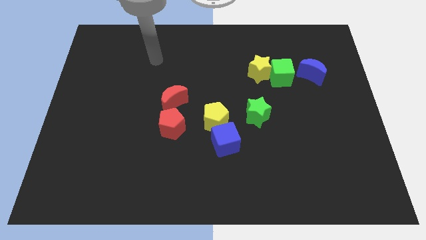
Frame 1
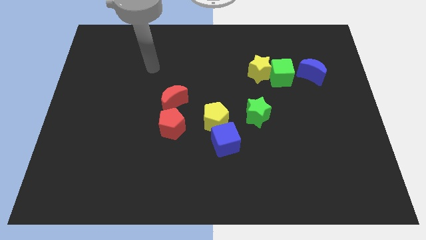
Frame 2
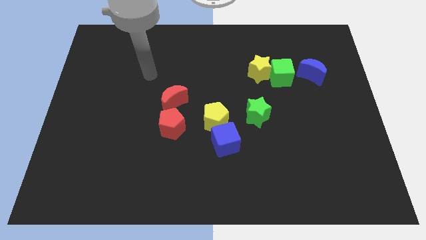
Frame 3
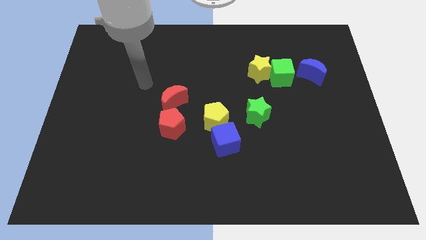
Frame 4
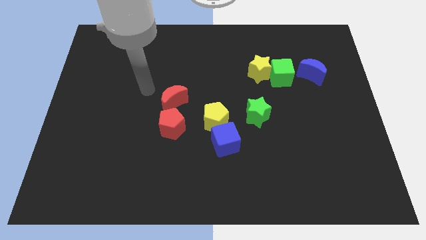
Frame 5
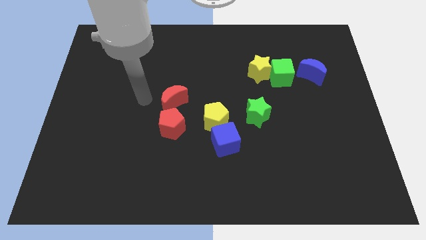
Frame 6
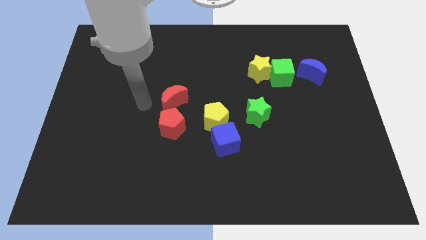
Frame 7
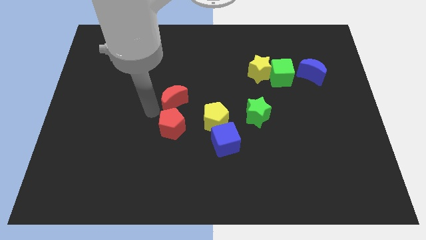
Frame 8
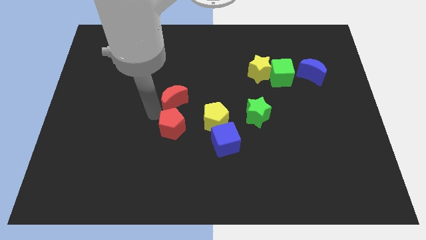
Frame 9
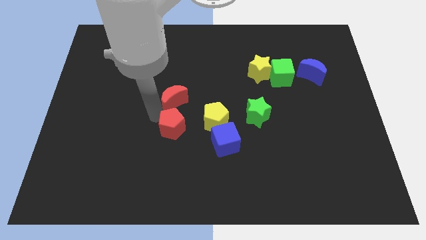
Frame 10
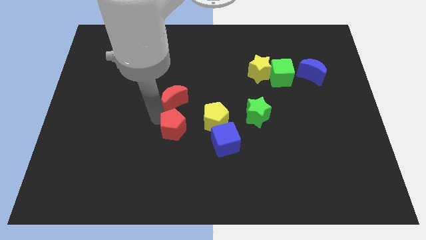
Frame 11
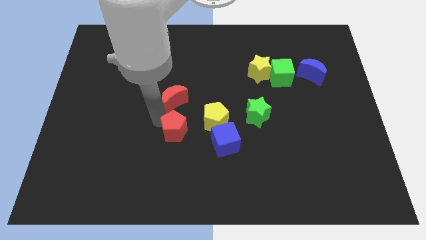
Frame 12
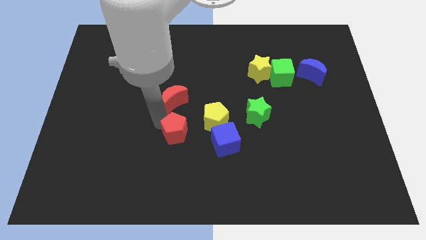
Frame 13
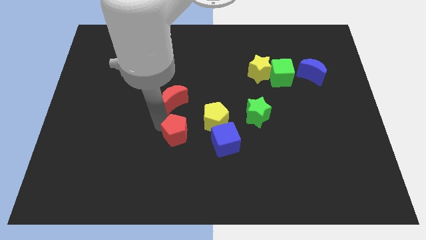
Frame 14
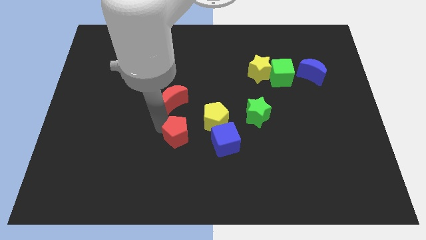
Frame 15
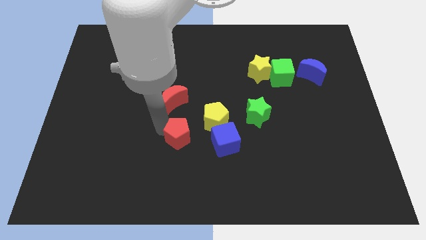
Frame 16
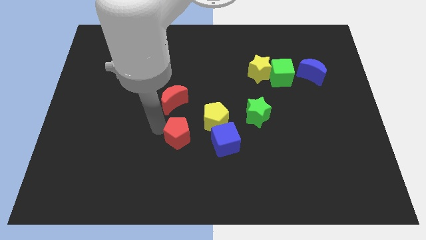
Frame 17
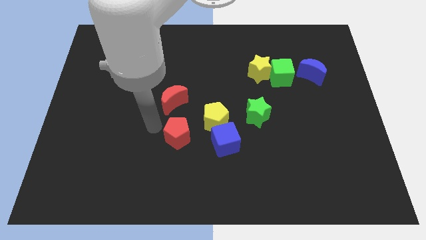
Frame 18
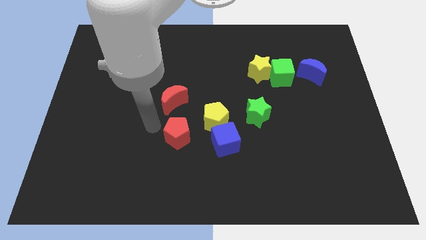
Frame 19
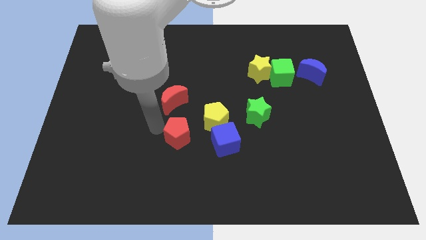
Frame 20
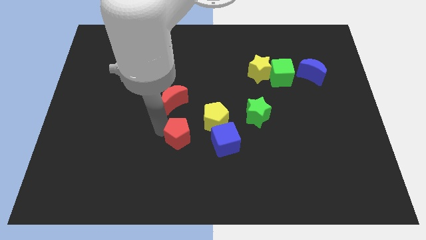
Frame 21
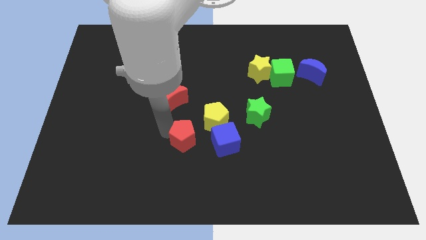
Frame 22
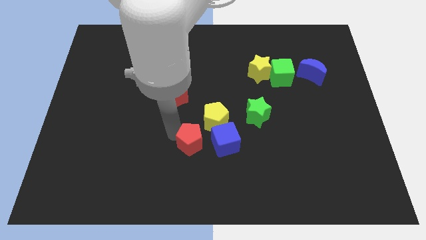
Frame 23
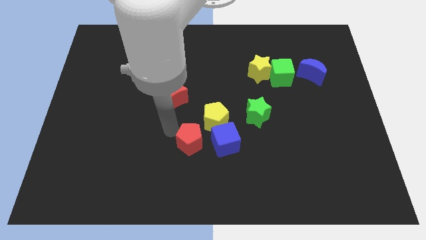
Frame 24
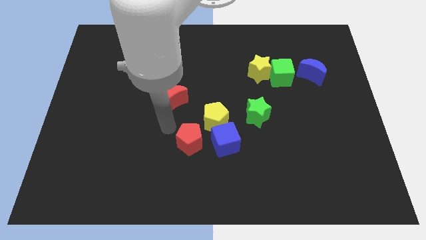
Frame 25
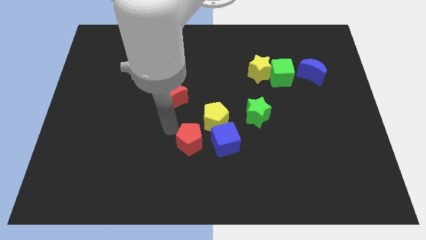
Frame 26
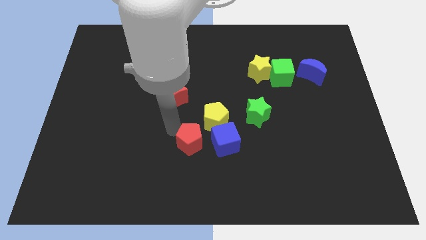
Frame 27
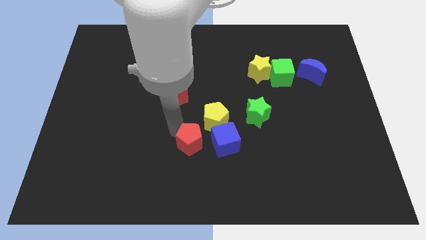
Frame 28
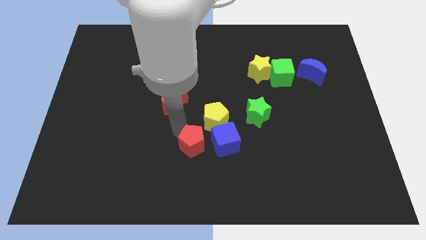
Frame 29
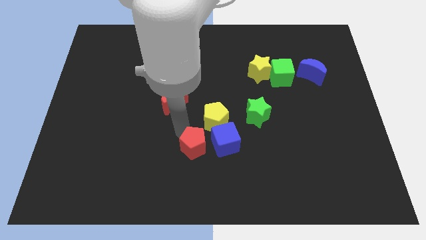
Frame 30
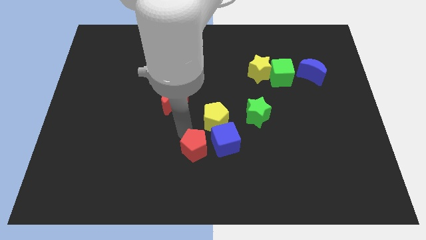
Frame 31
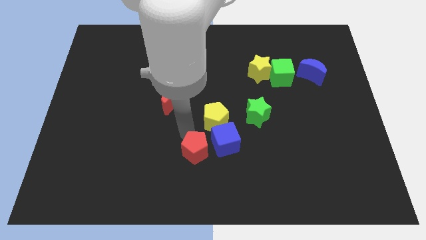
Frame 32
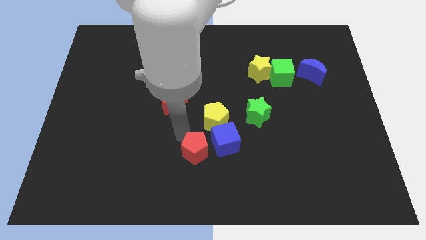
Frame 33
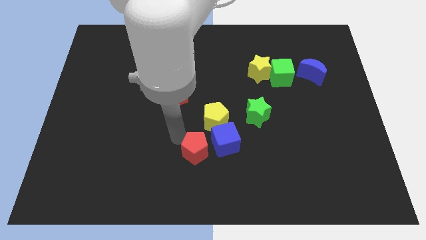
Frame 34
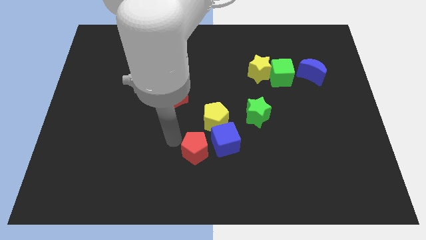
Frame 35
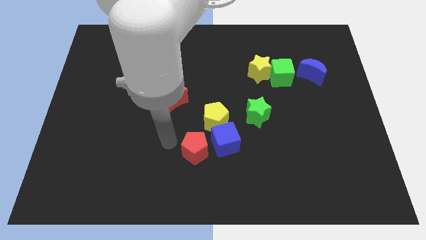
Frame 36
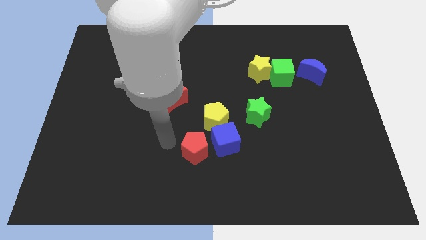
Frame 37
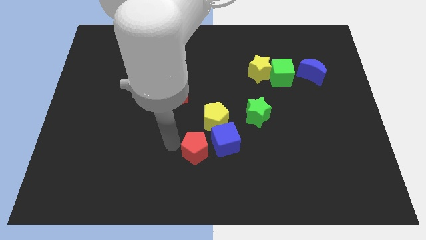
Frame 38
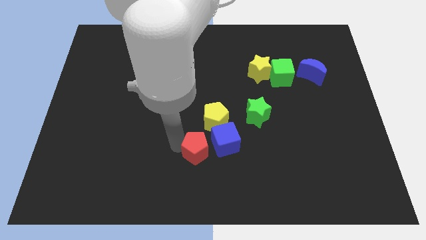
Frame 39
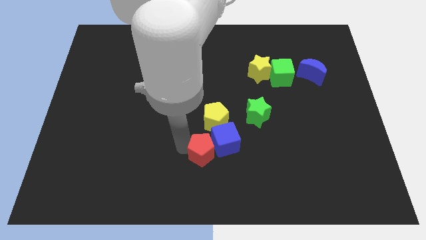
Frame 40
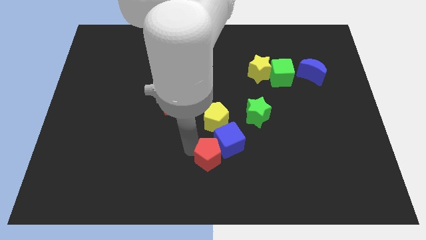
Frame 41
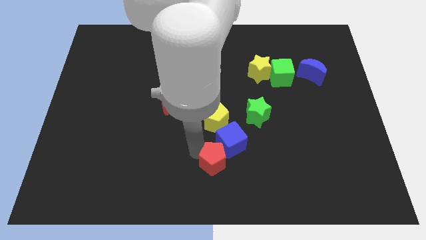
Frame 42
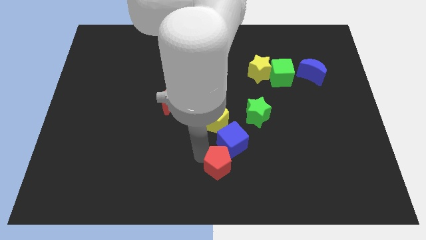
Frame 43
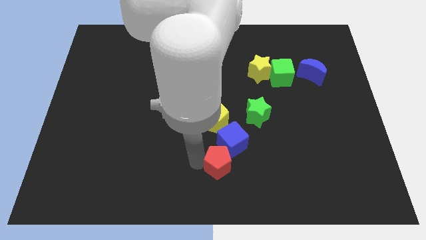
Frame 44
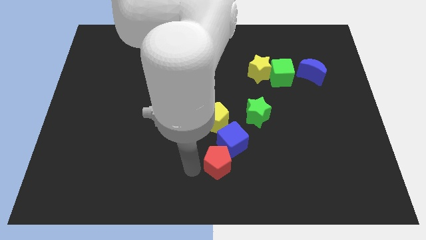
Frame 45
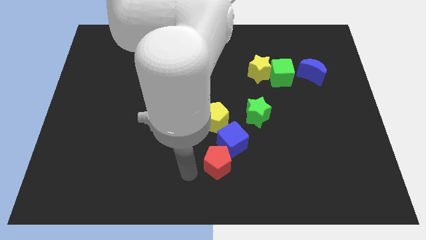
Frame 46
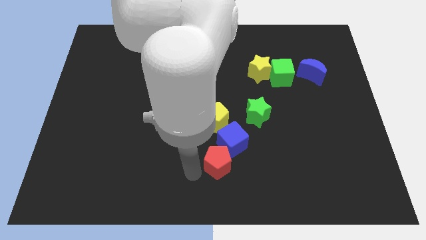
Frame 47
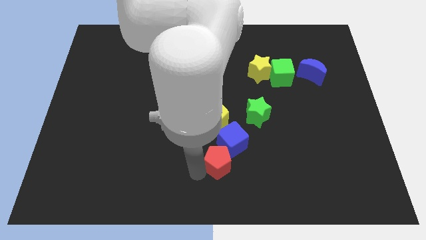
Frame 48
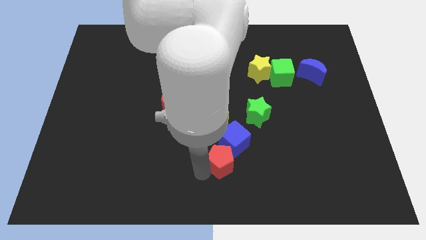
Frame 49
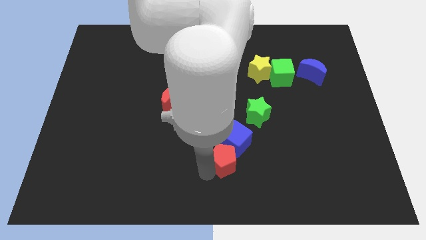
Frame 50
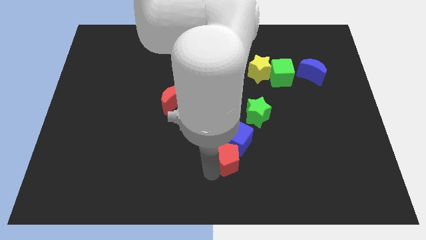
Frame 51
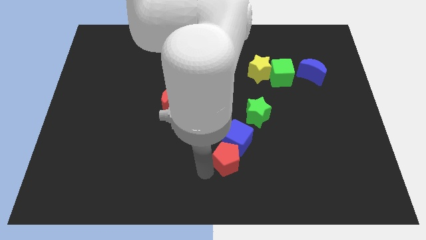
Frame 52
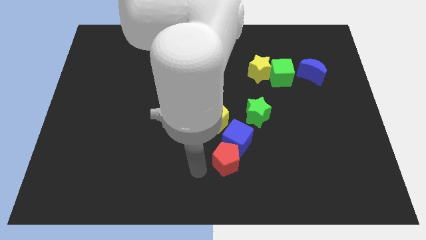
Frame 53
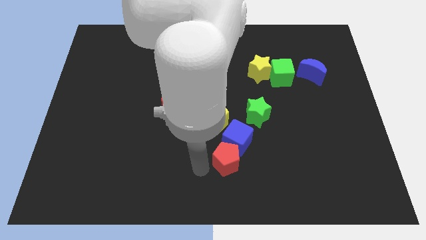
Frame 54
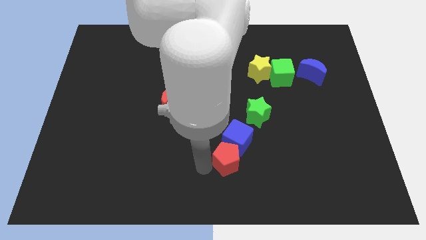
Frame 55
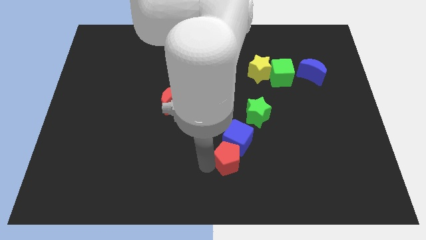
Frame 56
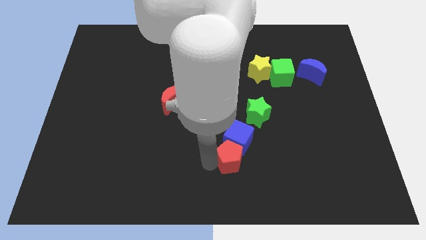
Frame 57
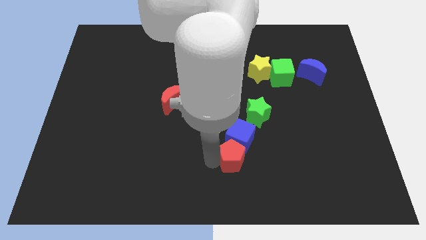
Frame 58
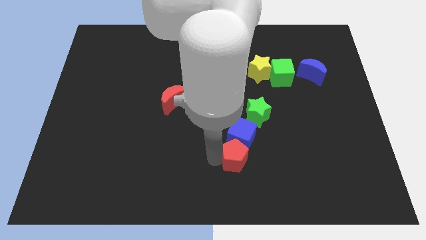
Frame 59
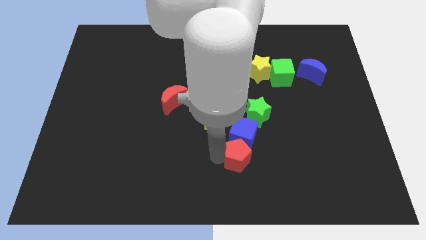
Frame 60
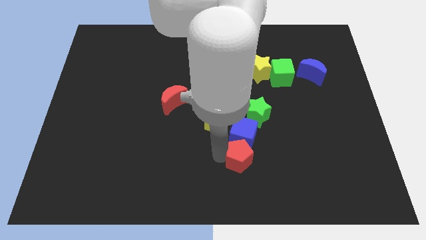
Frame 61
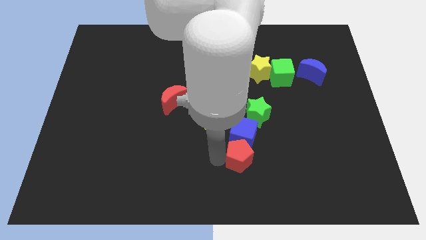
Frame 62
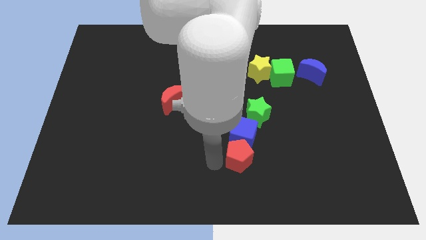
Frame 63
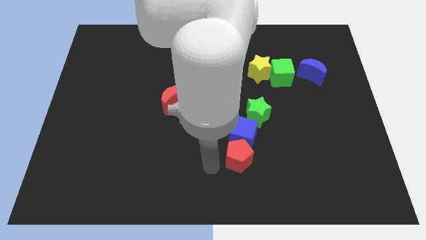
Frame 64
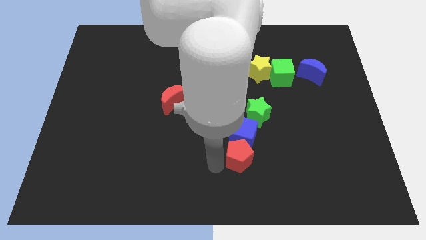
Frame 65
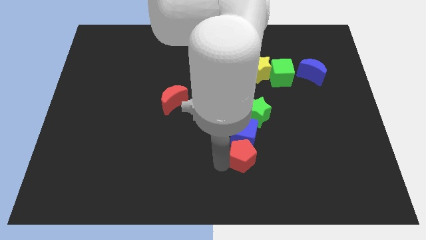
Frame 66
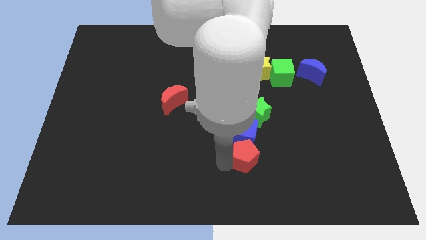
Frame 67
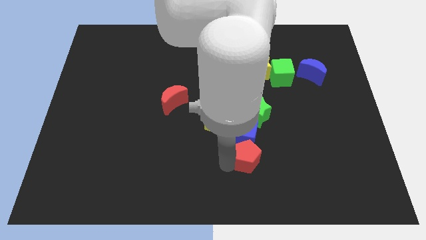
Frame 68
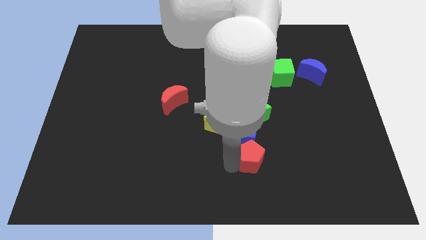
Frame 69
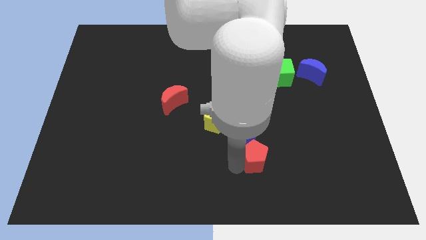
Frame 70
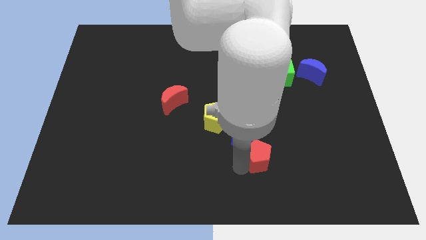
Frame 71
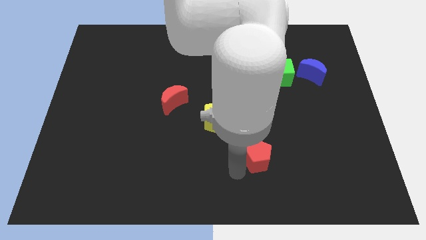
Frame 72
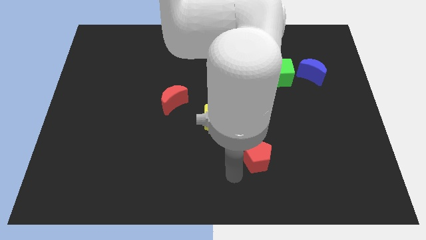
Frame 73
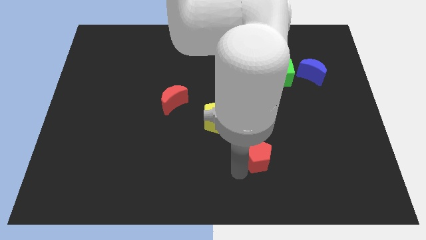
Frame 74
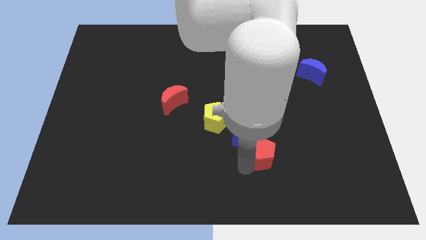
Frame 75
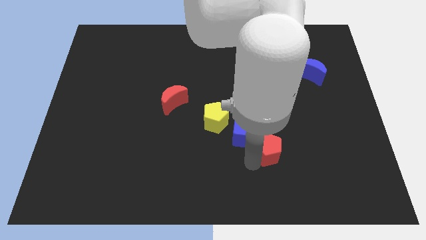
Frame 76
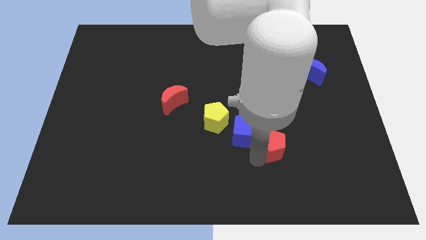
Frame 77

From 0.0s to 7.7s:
slide the red pentagon to the right

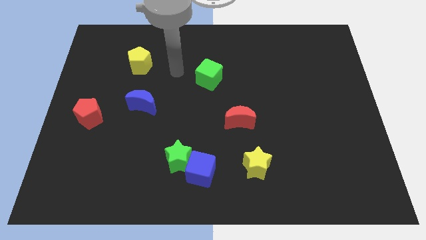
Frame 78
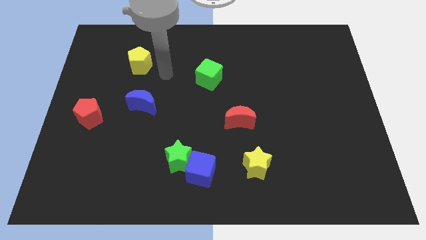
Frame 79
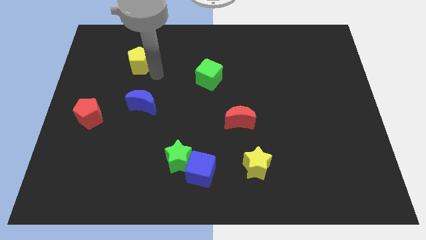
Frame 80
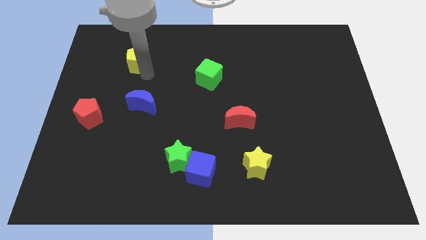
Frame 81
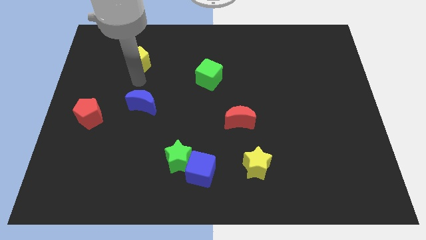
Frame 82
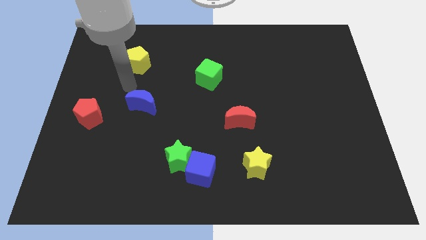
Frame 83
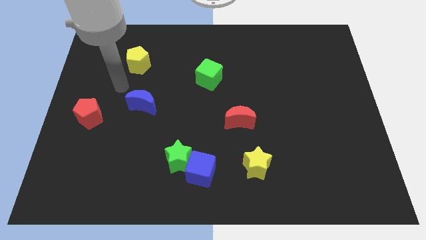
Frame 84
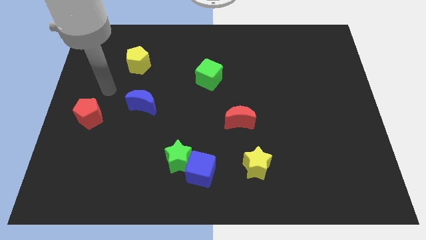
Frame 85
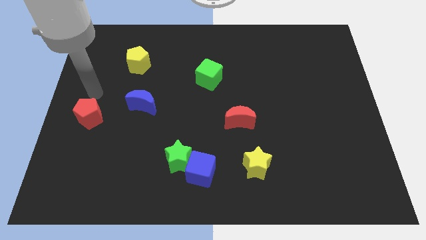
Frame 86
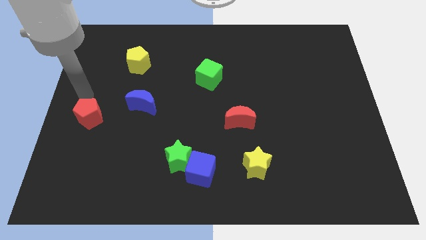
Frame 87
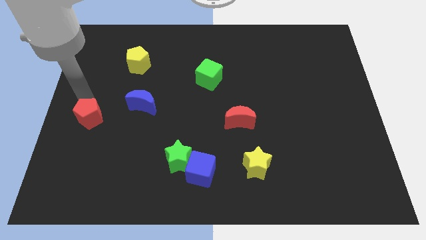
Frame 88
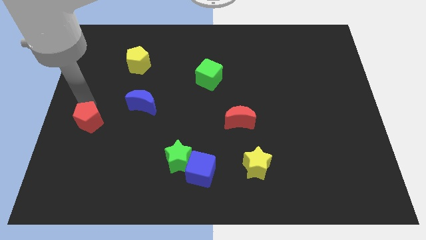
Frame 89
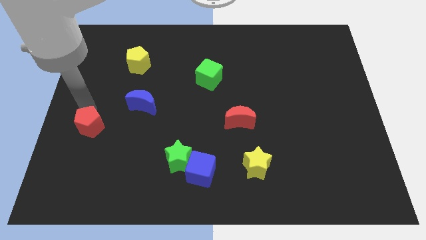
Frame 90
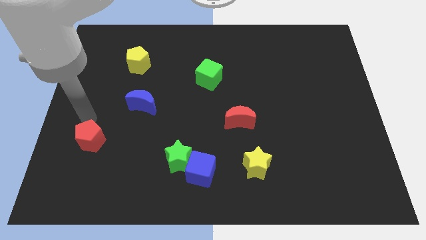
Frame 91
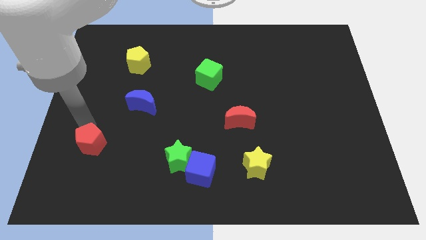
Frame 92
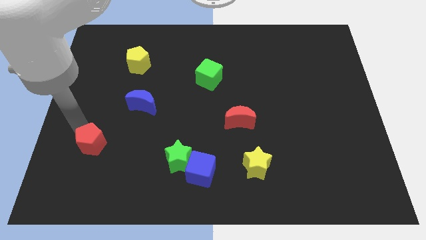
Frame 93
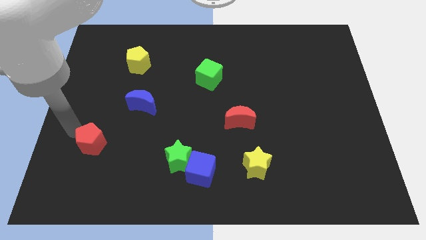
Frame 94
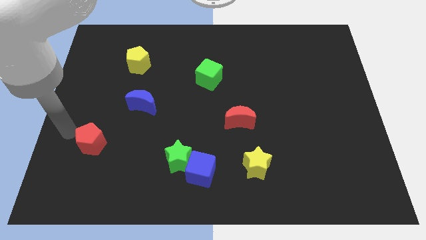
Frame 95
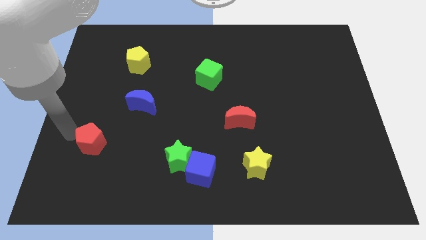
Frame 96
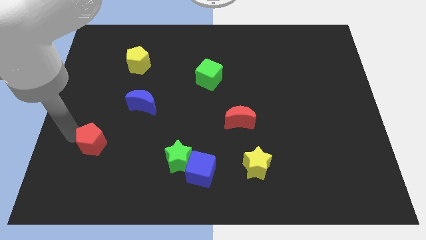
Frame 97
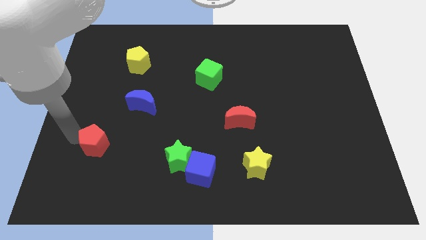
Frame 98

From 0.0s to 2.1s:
slightly push the red pentagon downwards and then to the right
